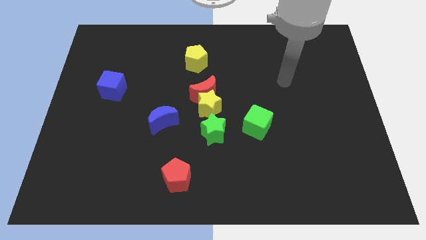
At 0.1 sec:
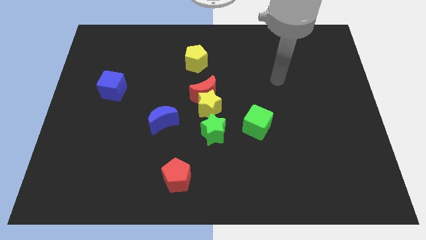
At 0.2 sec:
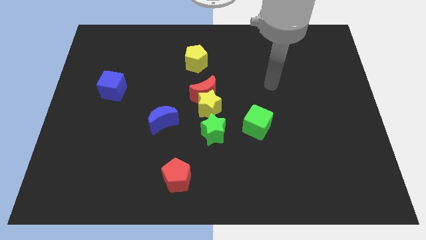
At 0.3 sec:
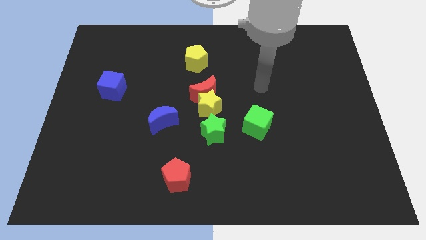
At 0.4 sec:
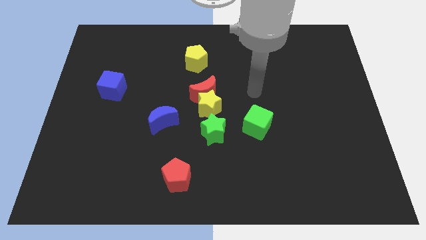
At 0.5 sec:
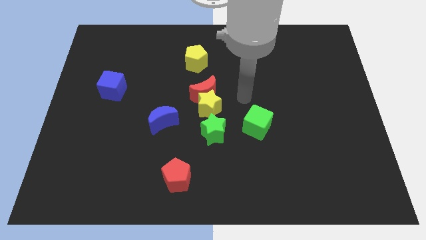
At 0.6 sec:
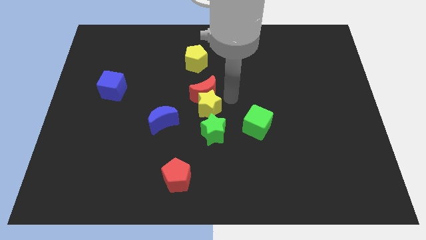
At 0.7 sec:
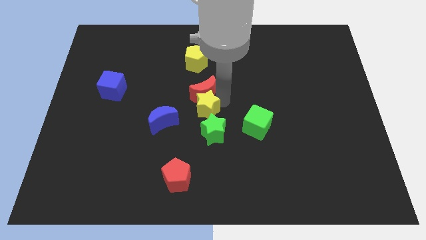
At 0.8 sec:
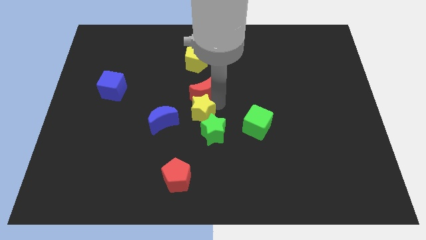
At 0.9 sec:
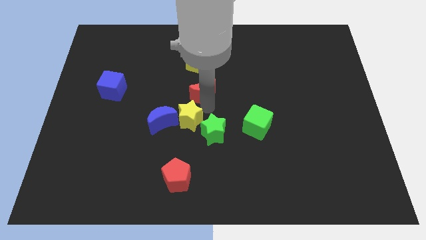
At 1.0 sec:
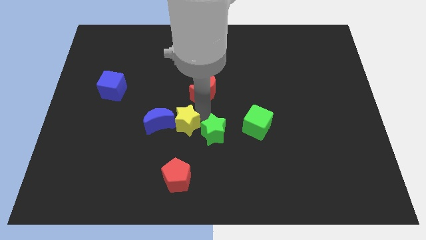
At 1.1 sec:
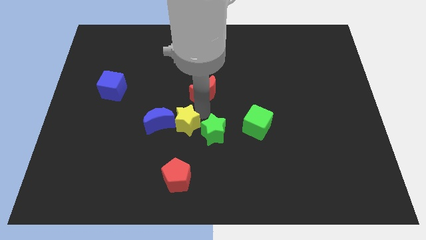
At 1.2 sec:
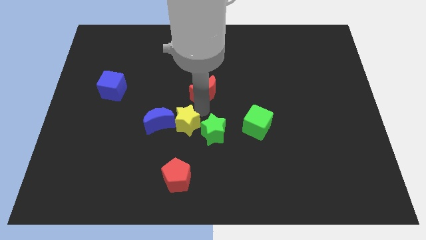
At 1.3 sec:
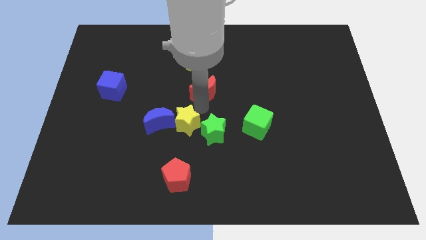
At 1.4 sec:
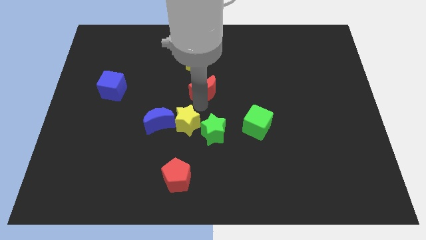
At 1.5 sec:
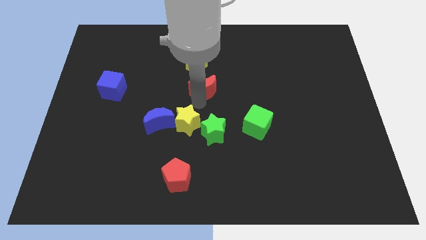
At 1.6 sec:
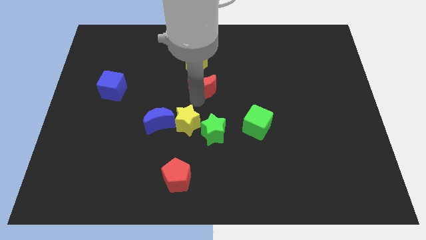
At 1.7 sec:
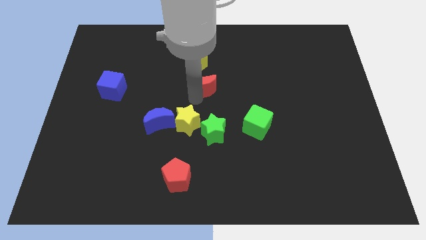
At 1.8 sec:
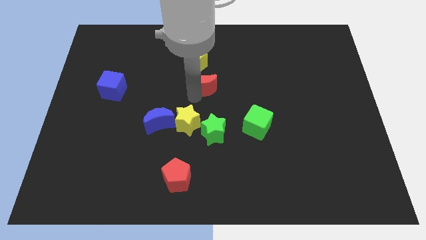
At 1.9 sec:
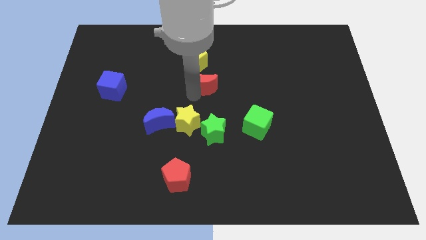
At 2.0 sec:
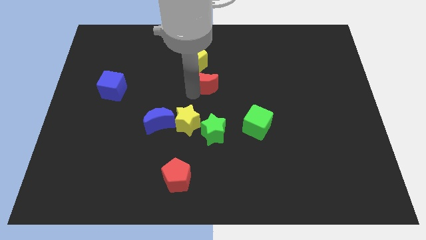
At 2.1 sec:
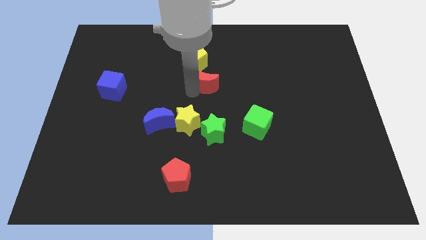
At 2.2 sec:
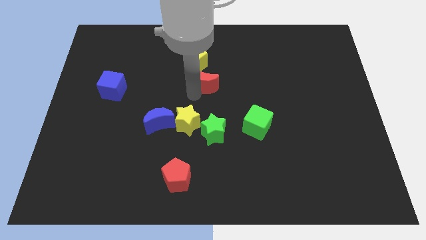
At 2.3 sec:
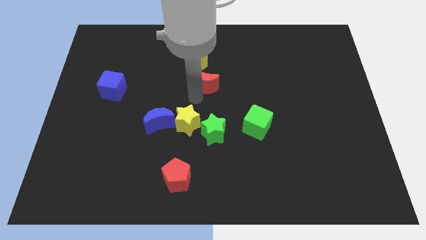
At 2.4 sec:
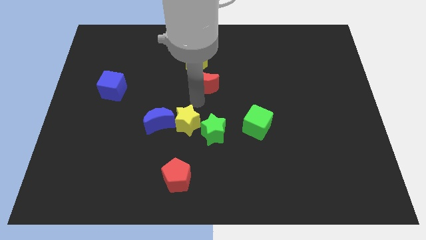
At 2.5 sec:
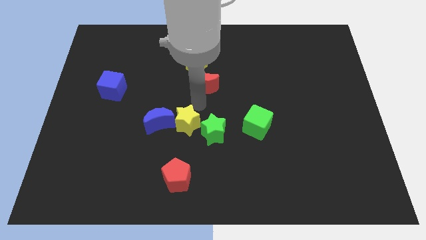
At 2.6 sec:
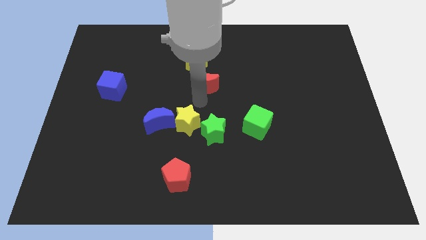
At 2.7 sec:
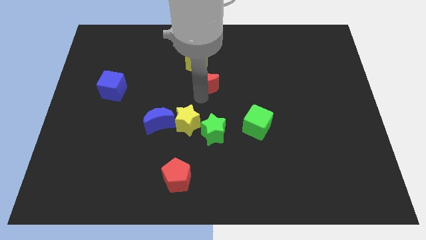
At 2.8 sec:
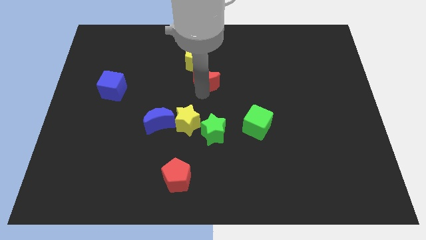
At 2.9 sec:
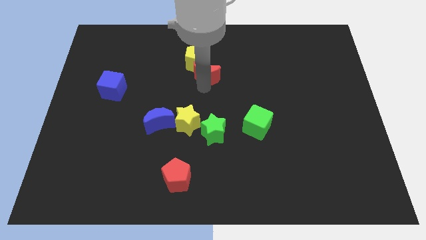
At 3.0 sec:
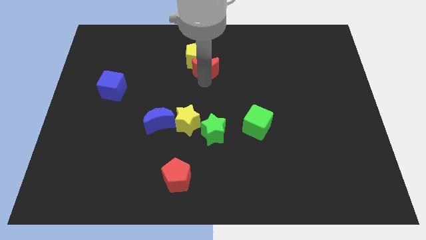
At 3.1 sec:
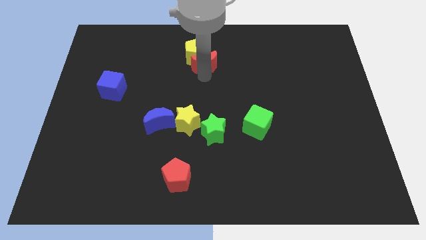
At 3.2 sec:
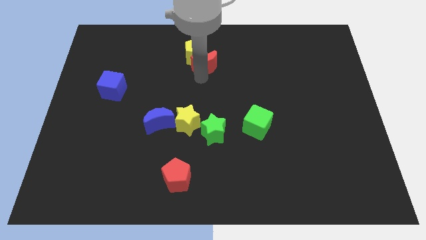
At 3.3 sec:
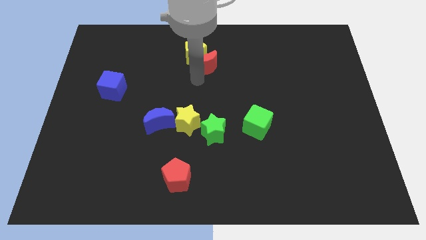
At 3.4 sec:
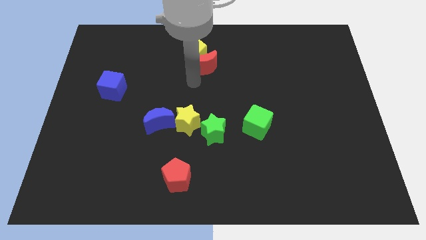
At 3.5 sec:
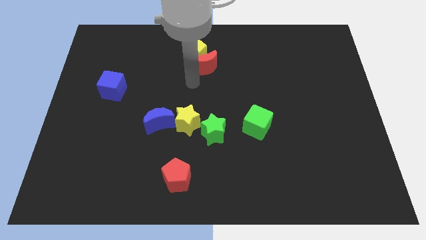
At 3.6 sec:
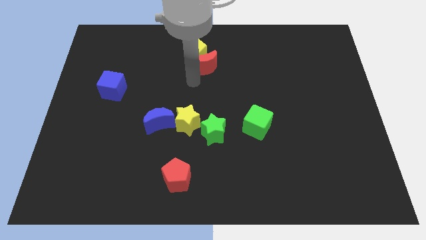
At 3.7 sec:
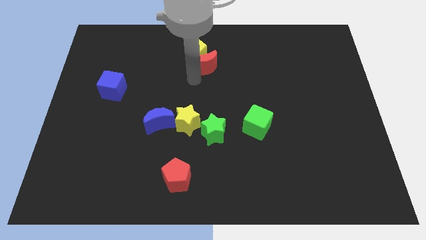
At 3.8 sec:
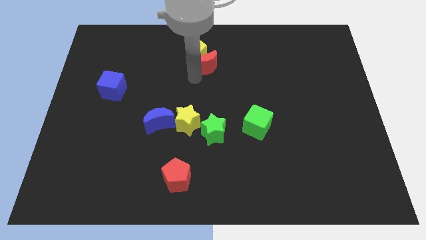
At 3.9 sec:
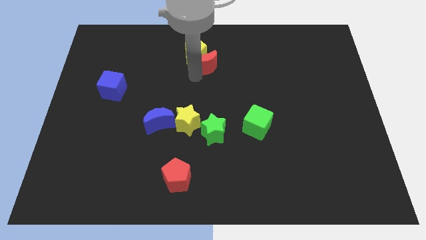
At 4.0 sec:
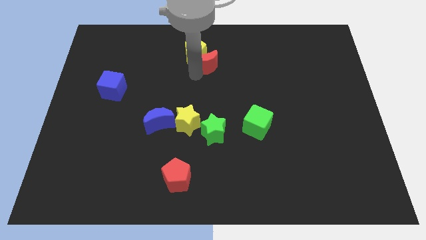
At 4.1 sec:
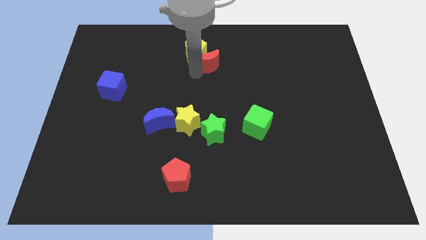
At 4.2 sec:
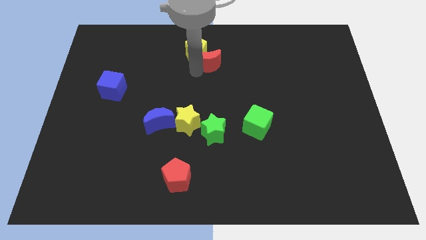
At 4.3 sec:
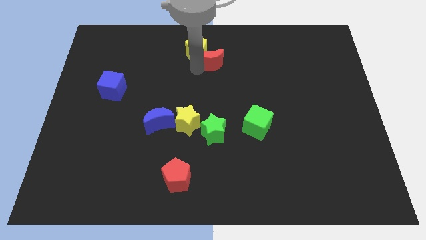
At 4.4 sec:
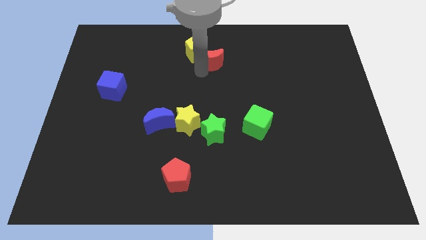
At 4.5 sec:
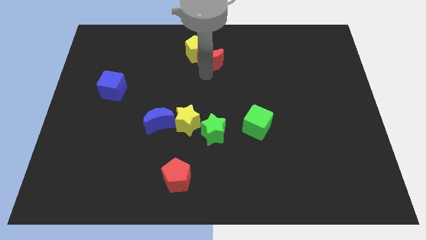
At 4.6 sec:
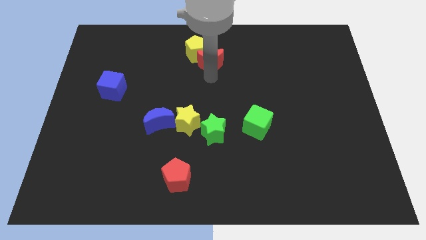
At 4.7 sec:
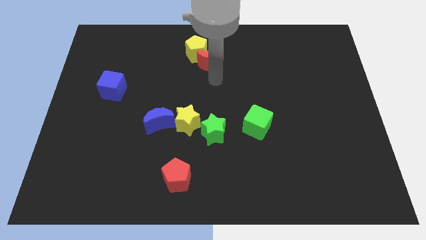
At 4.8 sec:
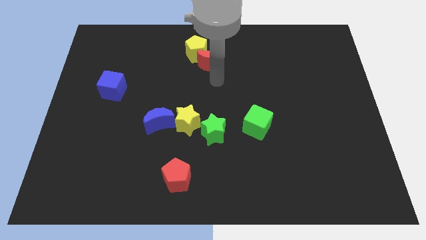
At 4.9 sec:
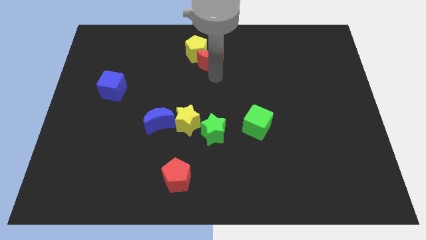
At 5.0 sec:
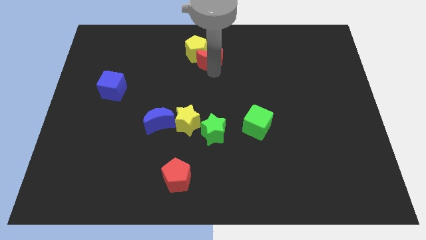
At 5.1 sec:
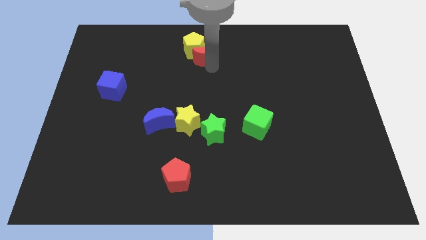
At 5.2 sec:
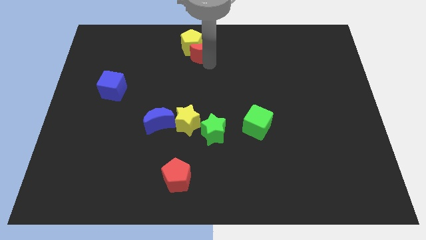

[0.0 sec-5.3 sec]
slide the red moon to the top
